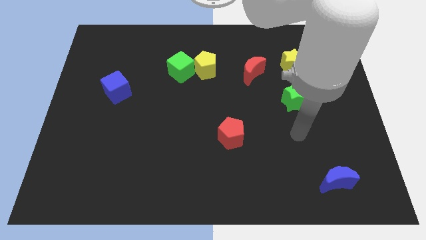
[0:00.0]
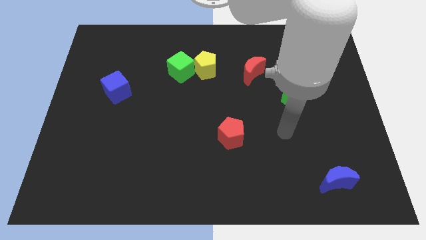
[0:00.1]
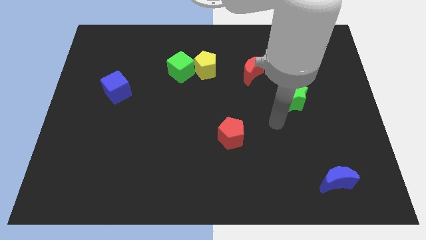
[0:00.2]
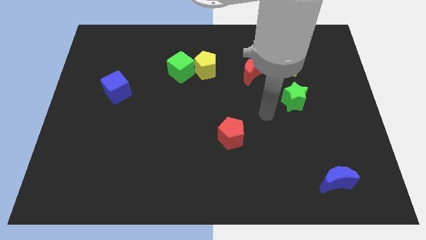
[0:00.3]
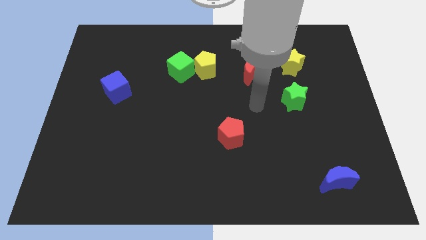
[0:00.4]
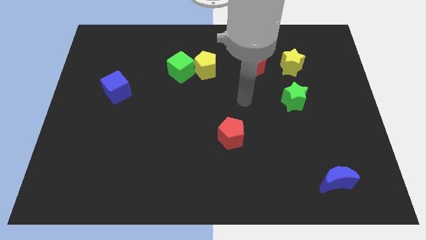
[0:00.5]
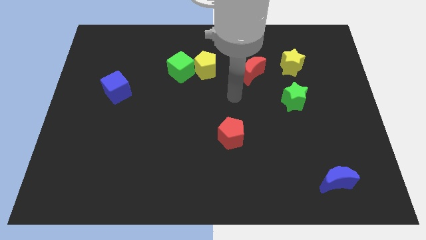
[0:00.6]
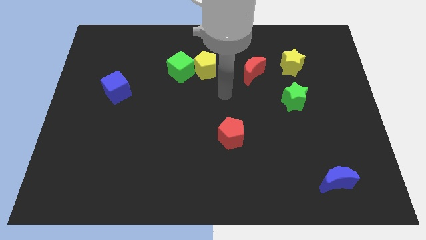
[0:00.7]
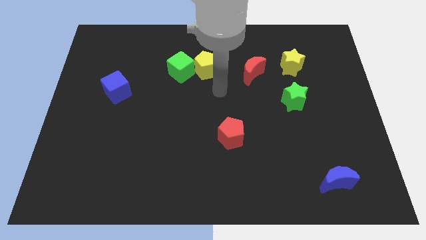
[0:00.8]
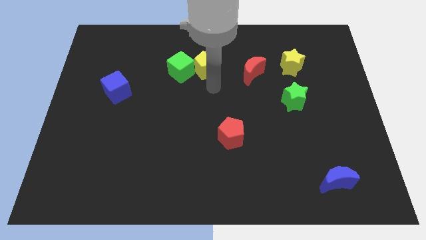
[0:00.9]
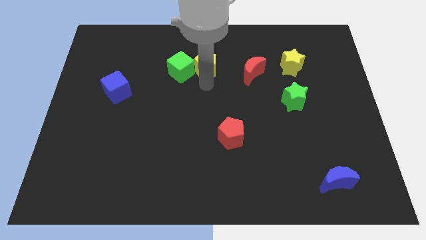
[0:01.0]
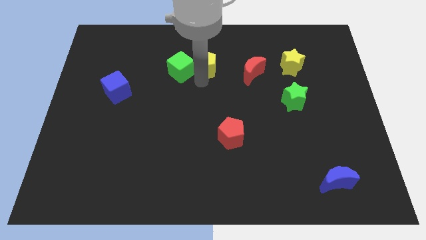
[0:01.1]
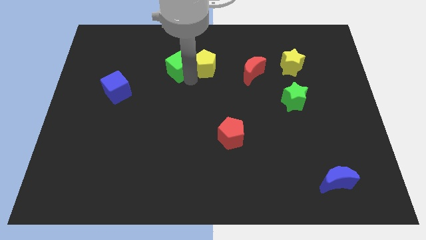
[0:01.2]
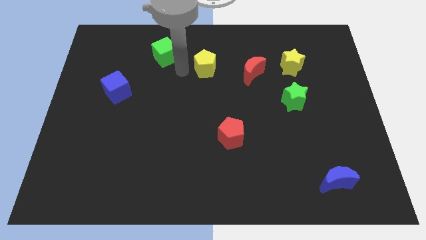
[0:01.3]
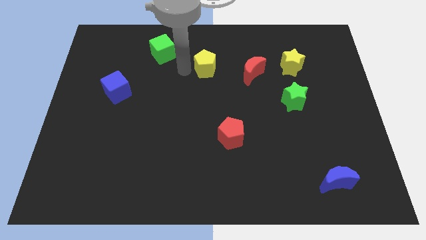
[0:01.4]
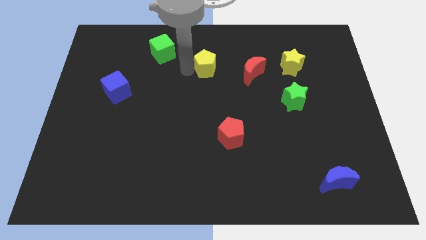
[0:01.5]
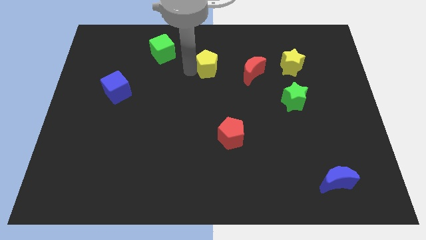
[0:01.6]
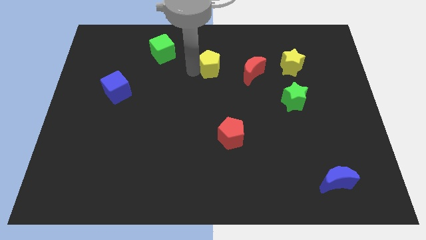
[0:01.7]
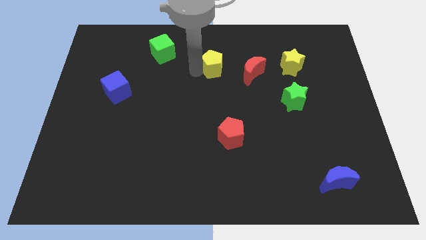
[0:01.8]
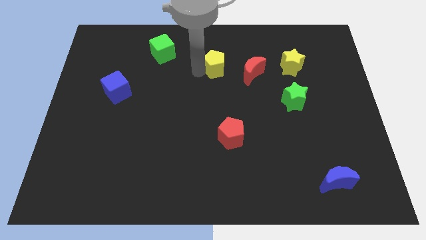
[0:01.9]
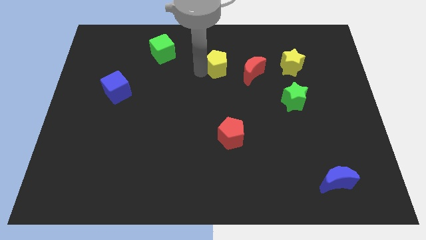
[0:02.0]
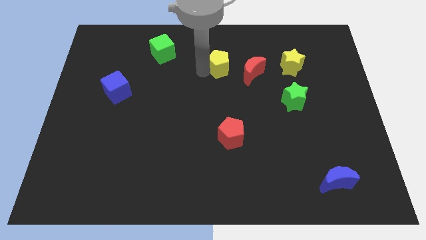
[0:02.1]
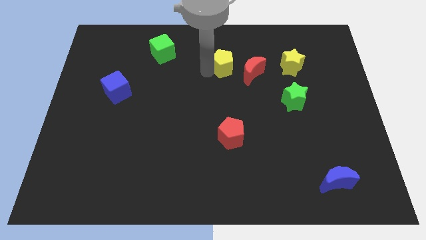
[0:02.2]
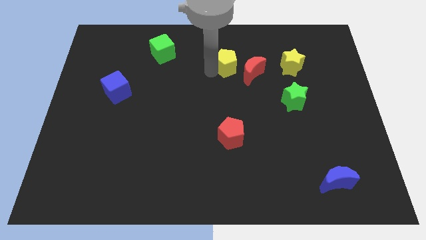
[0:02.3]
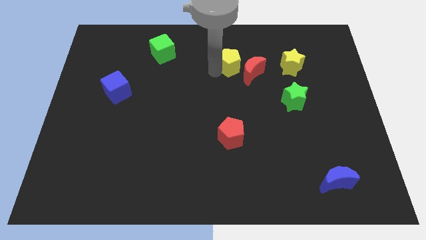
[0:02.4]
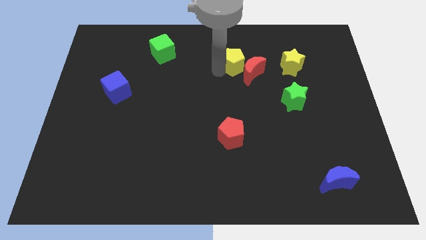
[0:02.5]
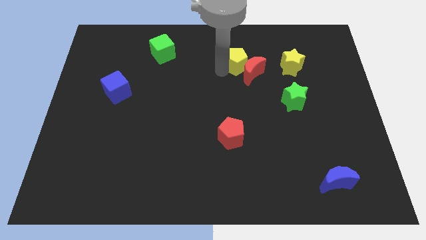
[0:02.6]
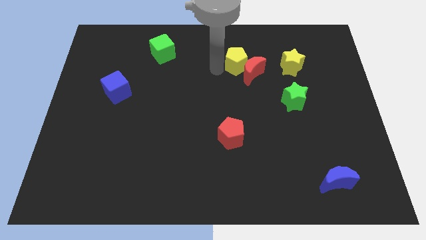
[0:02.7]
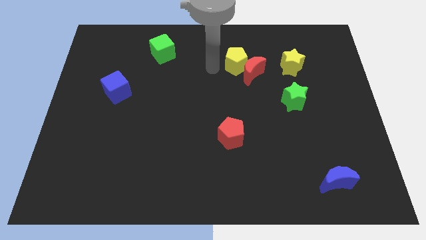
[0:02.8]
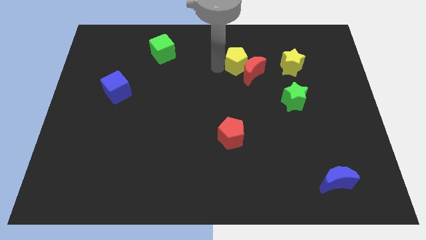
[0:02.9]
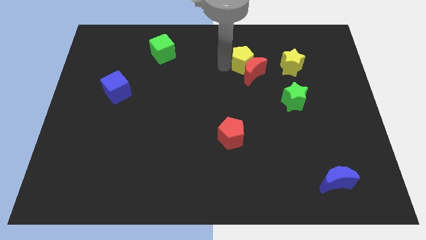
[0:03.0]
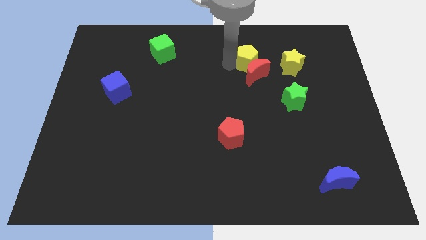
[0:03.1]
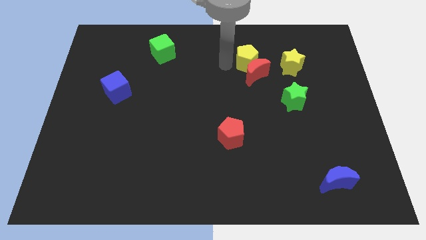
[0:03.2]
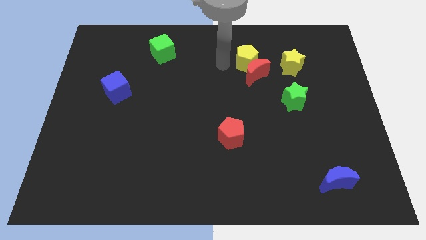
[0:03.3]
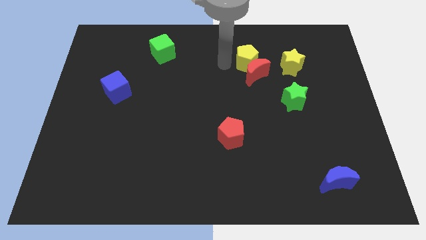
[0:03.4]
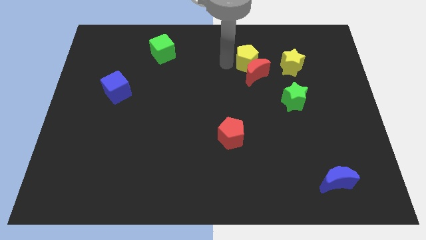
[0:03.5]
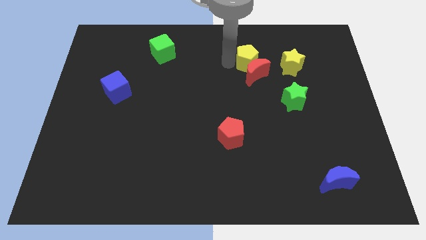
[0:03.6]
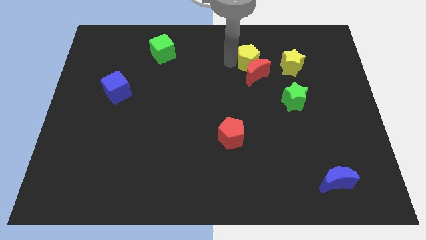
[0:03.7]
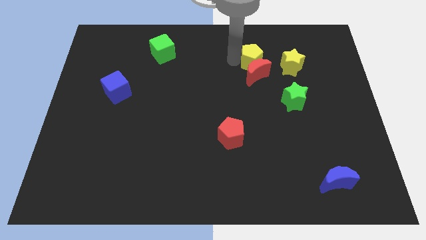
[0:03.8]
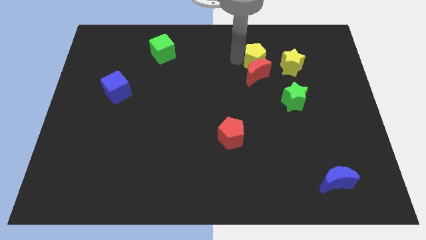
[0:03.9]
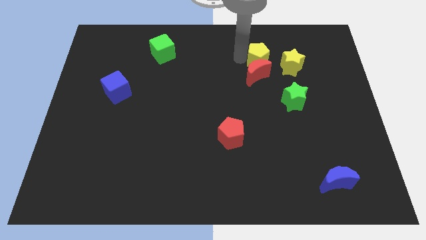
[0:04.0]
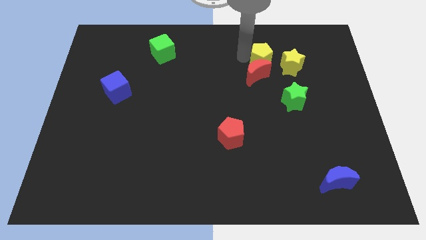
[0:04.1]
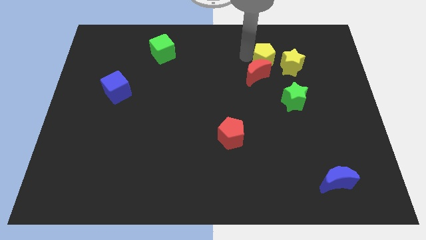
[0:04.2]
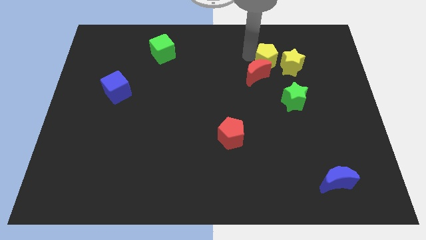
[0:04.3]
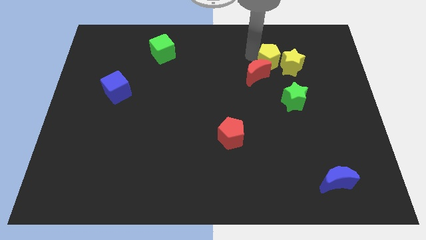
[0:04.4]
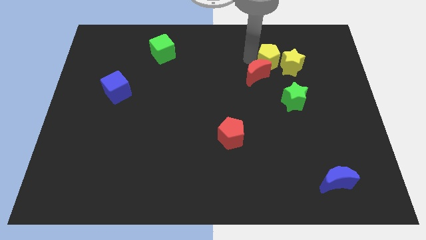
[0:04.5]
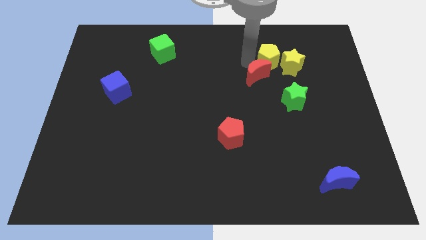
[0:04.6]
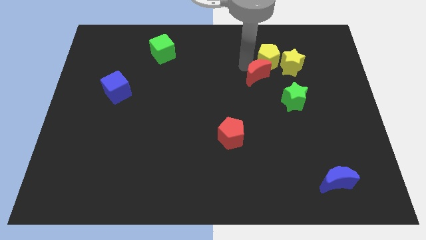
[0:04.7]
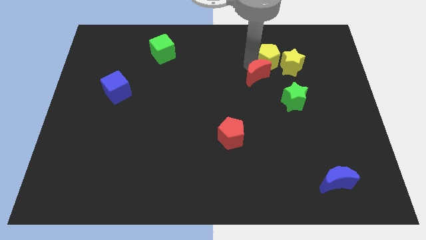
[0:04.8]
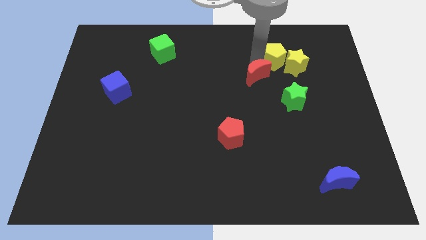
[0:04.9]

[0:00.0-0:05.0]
slide the yellow pentagon above the green star

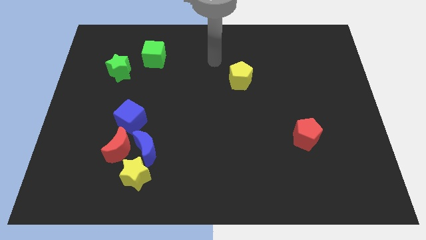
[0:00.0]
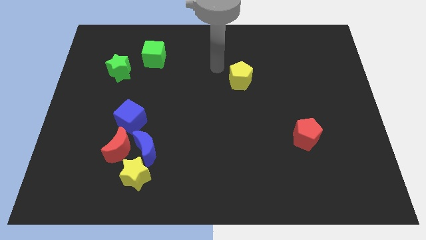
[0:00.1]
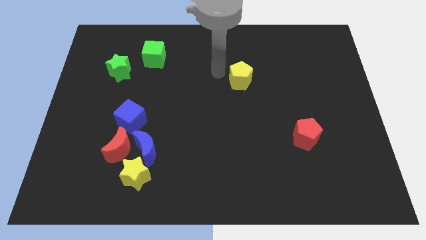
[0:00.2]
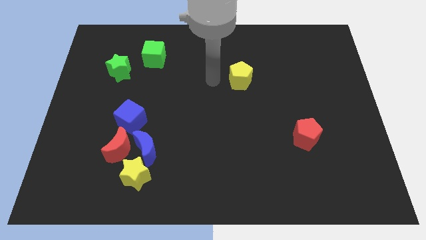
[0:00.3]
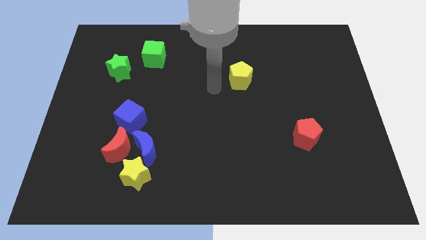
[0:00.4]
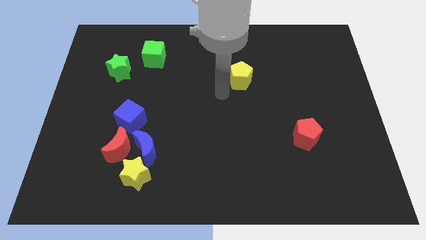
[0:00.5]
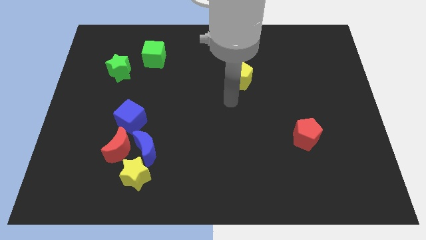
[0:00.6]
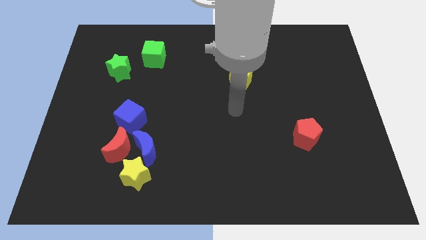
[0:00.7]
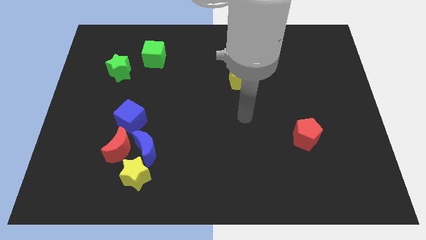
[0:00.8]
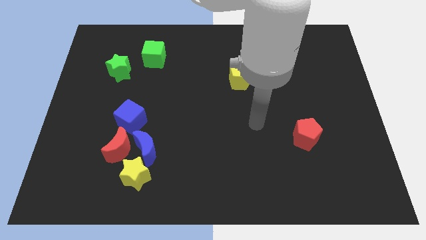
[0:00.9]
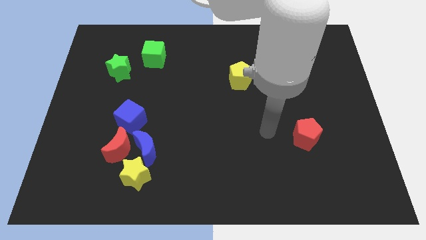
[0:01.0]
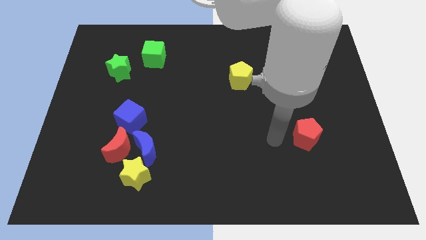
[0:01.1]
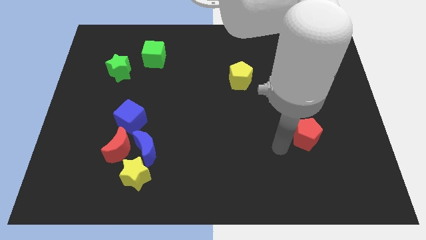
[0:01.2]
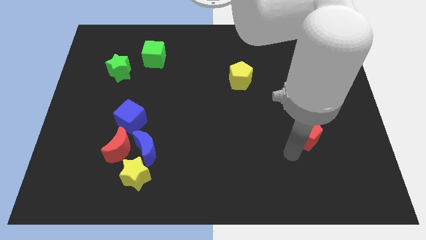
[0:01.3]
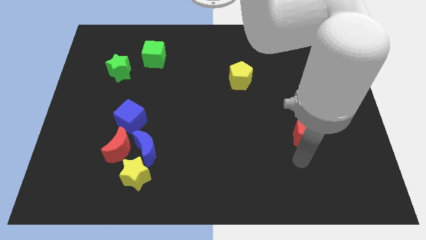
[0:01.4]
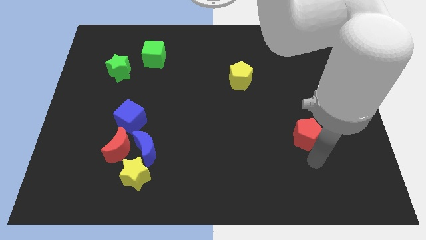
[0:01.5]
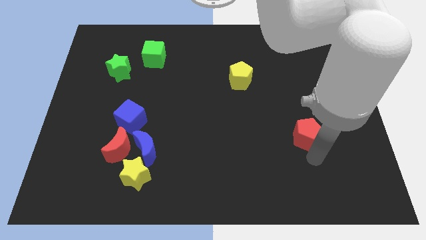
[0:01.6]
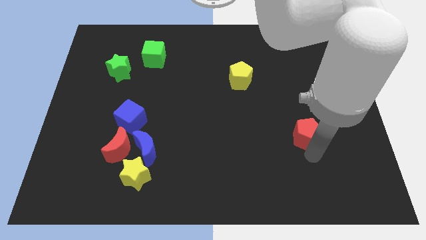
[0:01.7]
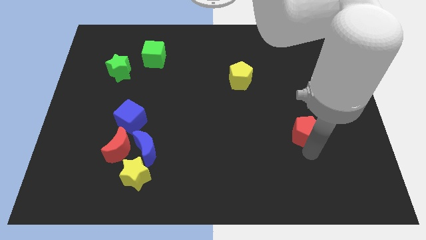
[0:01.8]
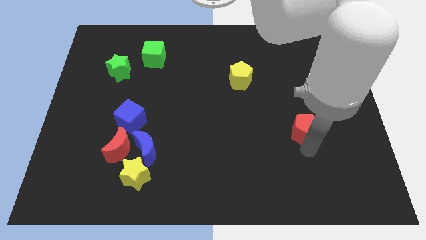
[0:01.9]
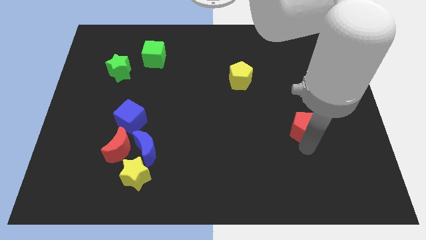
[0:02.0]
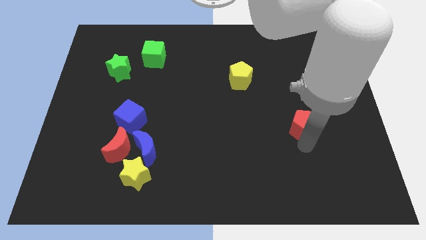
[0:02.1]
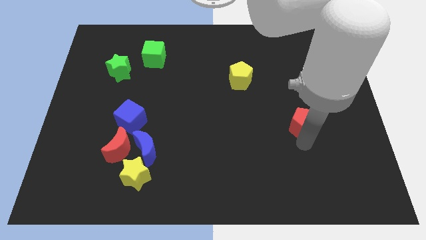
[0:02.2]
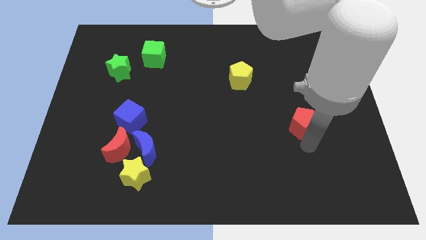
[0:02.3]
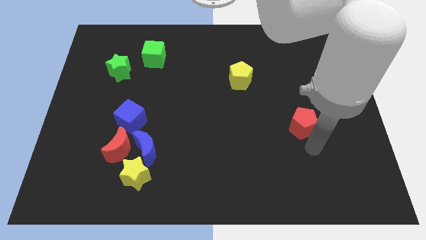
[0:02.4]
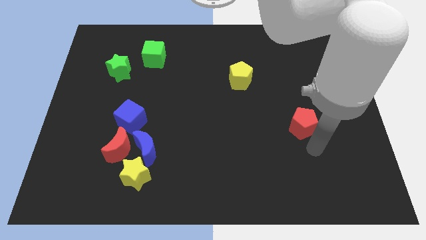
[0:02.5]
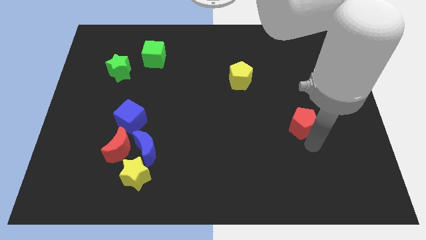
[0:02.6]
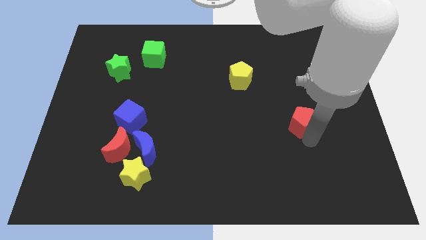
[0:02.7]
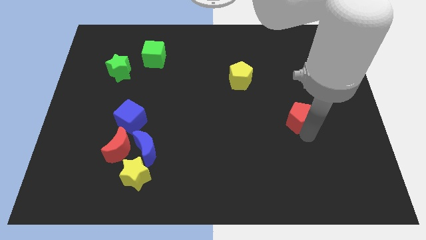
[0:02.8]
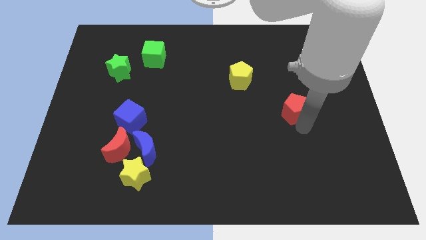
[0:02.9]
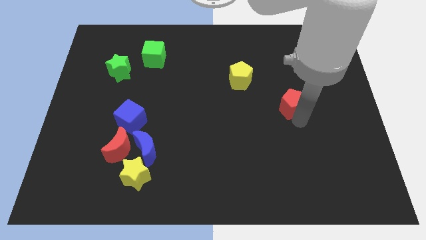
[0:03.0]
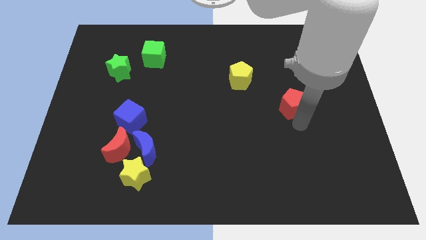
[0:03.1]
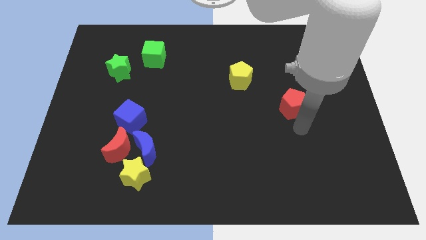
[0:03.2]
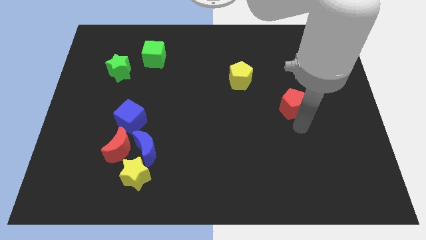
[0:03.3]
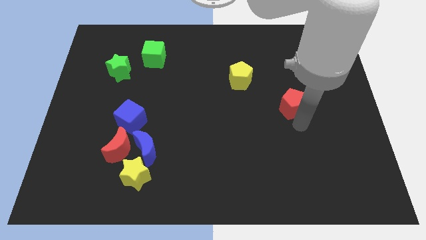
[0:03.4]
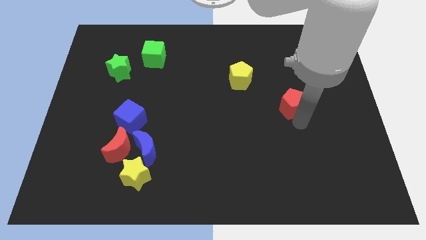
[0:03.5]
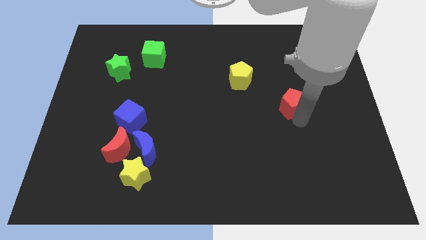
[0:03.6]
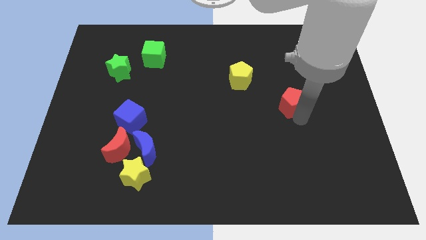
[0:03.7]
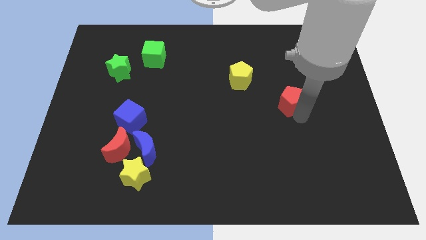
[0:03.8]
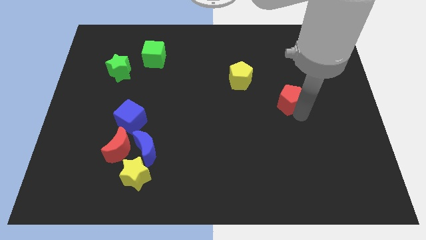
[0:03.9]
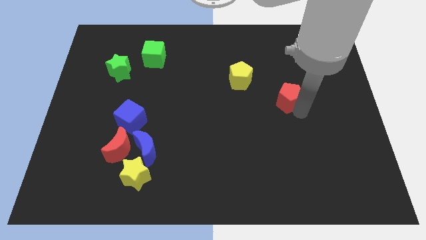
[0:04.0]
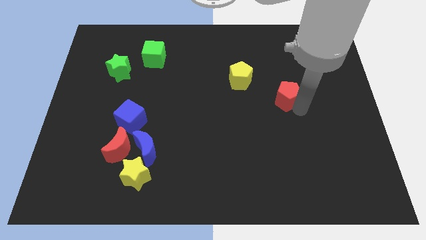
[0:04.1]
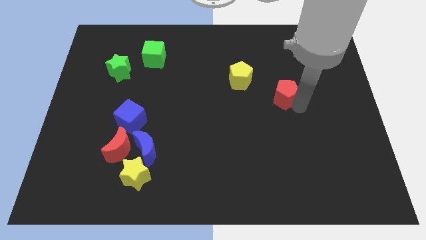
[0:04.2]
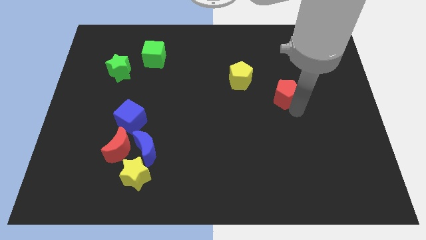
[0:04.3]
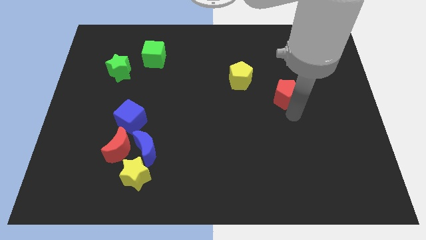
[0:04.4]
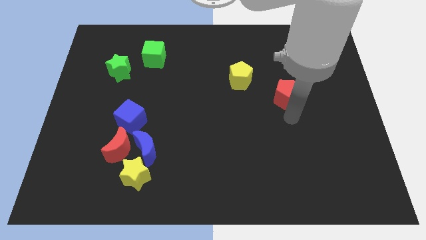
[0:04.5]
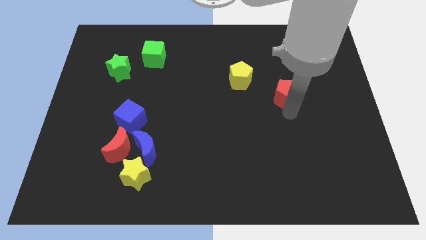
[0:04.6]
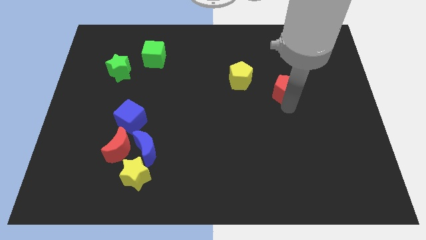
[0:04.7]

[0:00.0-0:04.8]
put the red pentagon to the right side of the yellow pentagon
